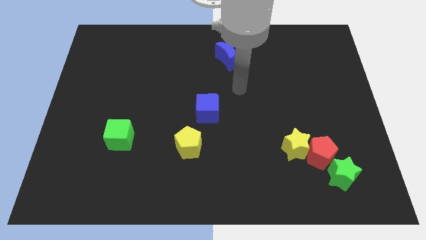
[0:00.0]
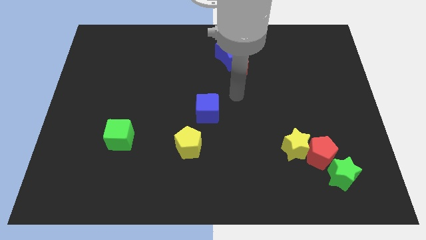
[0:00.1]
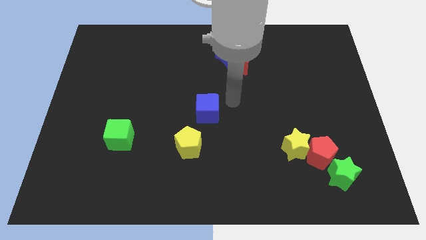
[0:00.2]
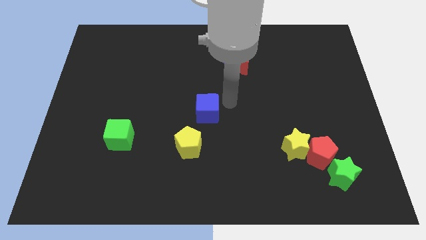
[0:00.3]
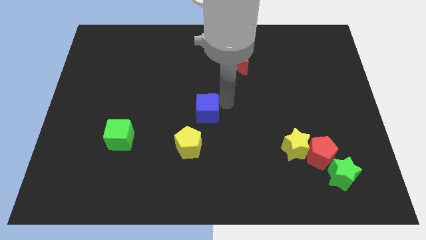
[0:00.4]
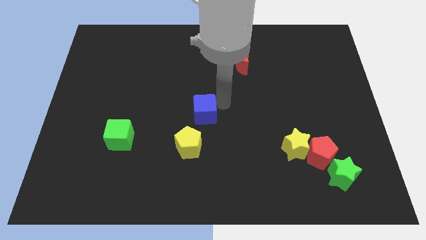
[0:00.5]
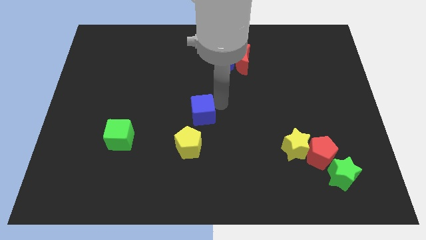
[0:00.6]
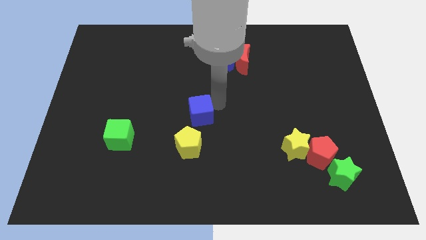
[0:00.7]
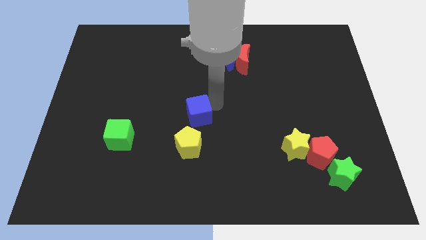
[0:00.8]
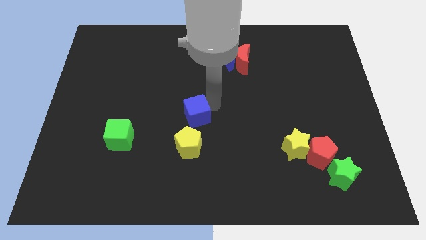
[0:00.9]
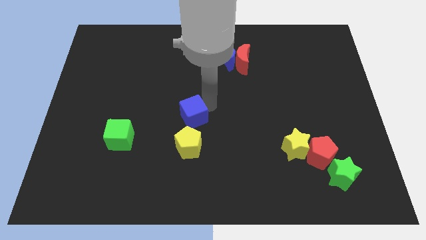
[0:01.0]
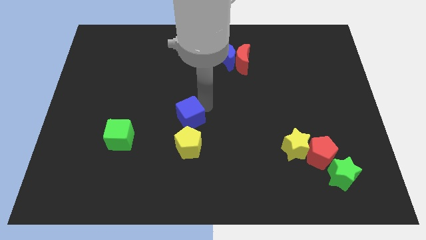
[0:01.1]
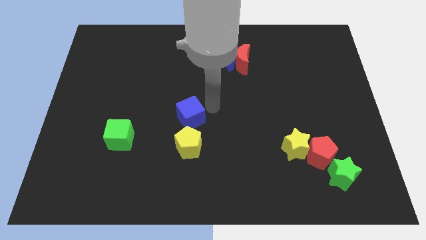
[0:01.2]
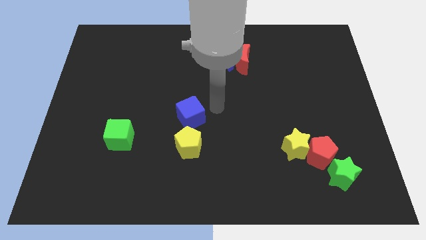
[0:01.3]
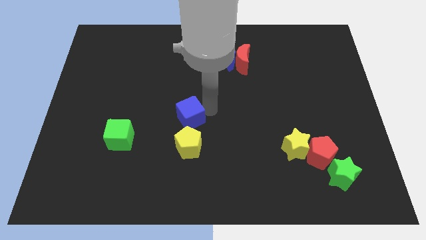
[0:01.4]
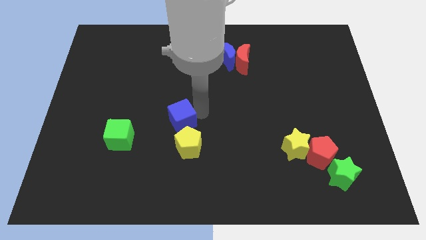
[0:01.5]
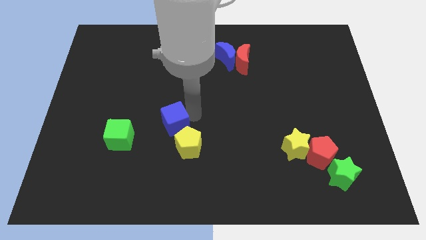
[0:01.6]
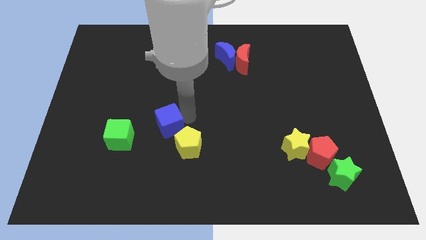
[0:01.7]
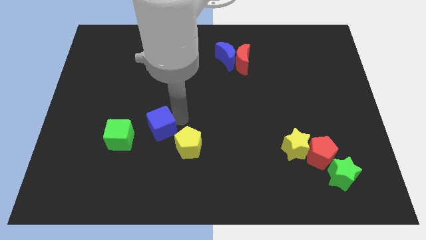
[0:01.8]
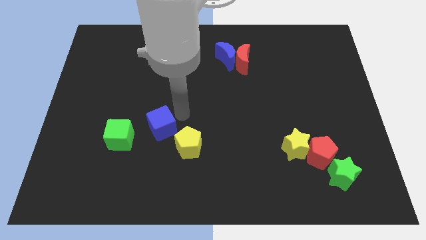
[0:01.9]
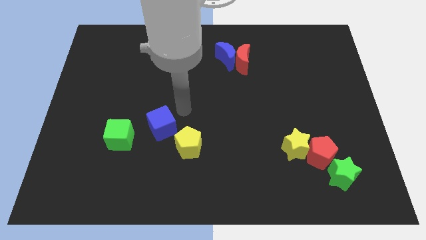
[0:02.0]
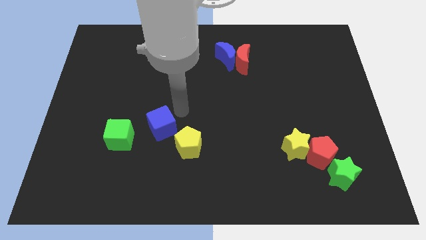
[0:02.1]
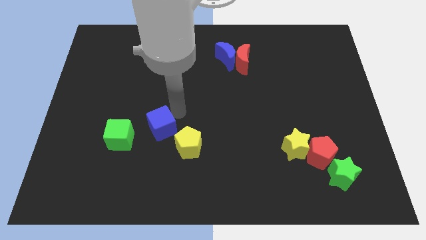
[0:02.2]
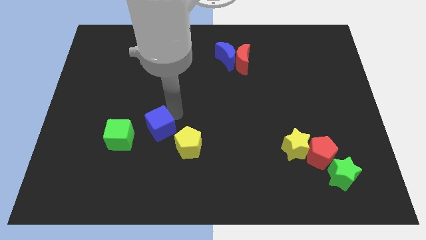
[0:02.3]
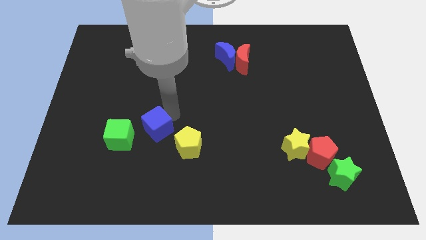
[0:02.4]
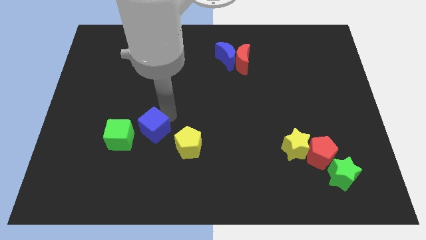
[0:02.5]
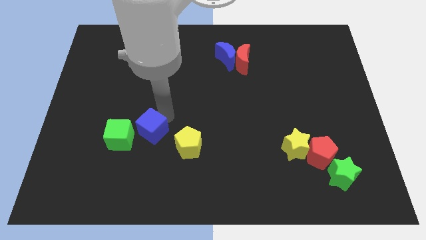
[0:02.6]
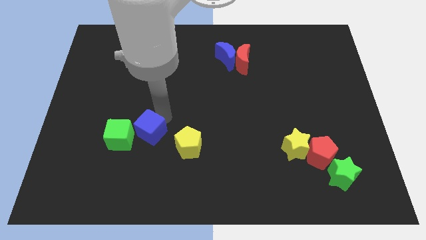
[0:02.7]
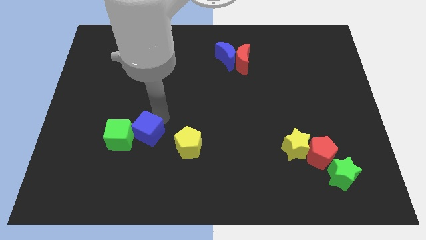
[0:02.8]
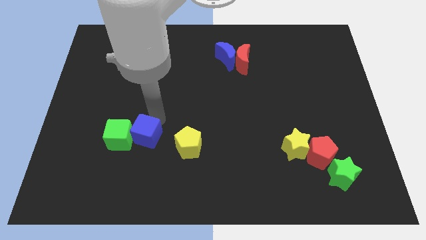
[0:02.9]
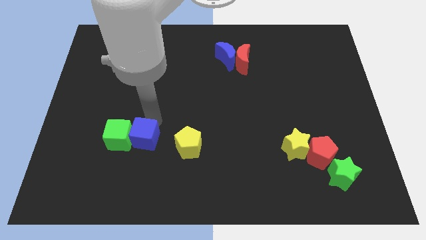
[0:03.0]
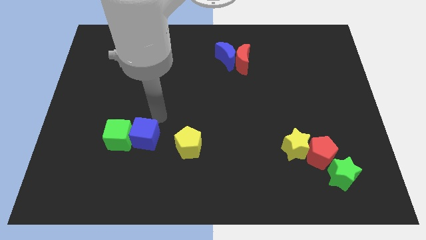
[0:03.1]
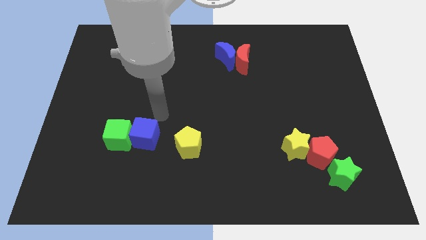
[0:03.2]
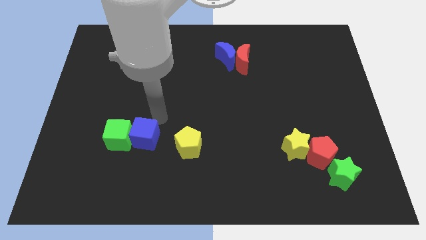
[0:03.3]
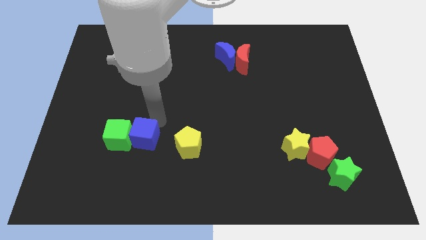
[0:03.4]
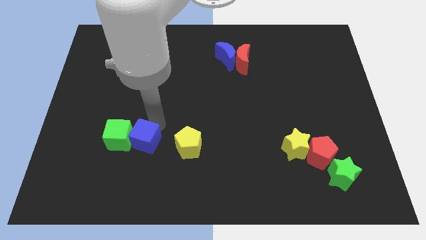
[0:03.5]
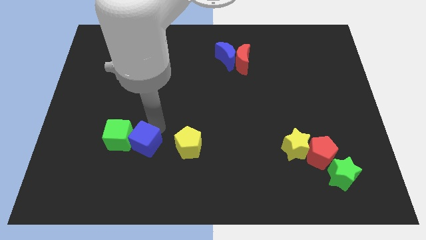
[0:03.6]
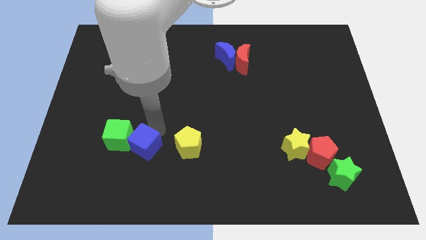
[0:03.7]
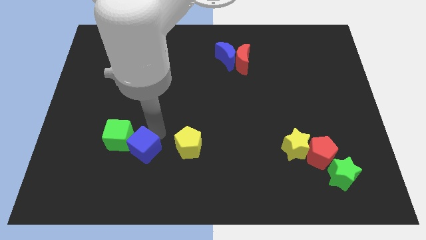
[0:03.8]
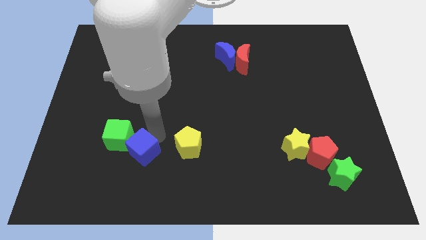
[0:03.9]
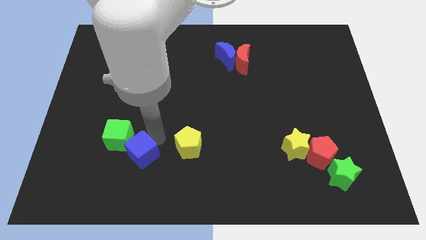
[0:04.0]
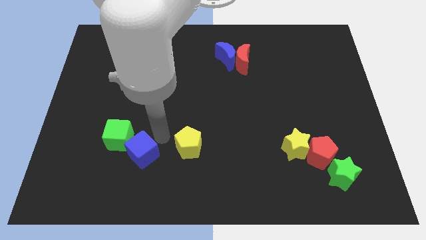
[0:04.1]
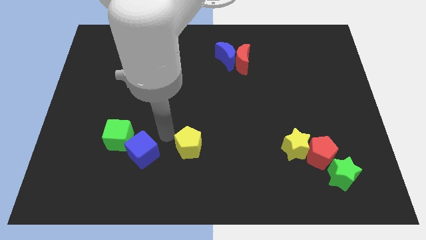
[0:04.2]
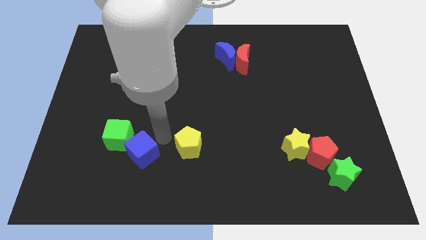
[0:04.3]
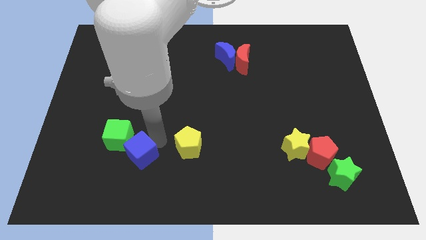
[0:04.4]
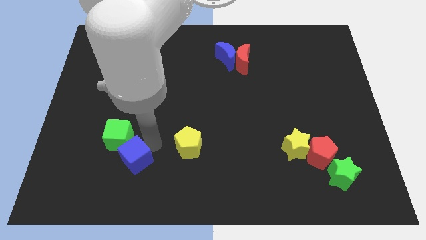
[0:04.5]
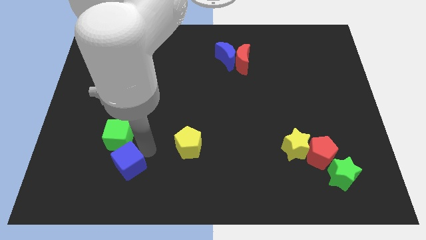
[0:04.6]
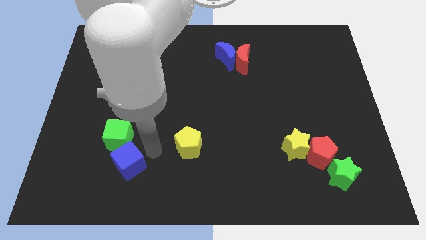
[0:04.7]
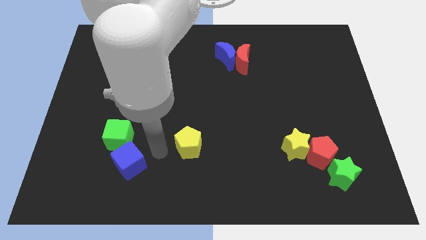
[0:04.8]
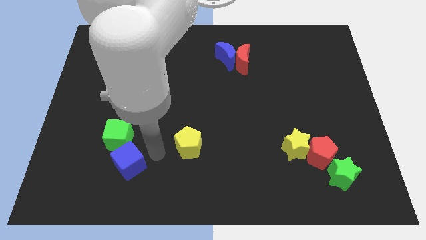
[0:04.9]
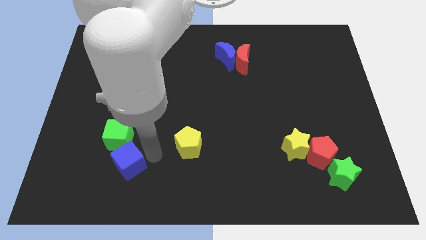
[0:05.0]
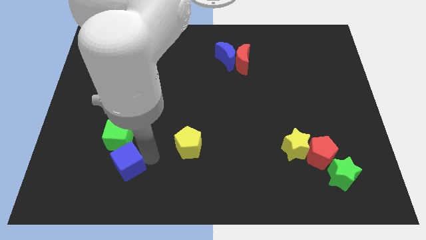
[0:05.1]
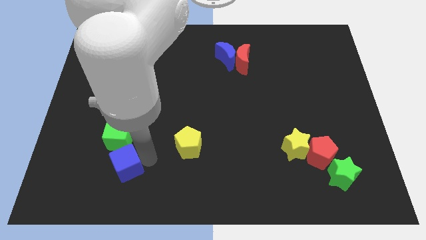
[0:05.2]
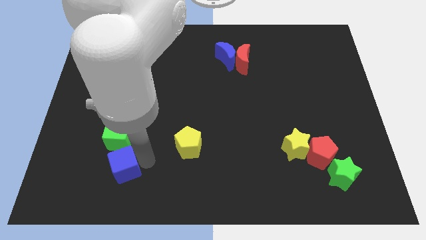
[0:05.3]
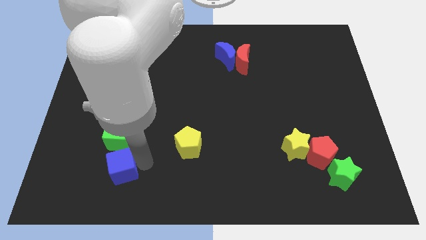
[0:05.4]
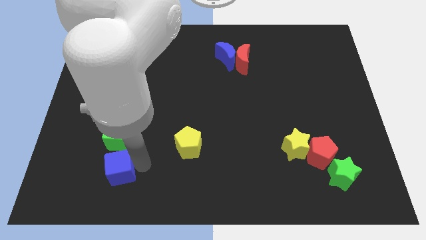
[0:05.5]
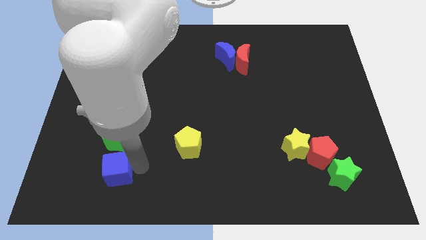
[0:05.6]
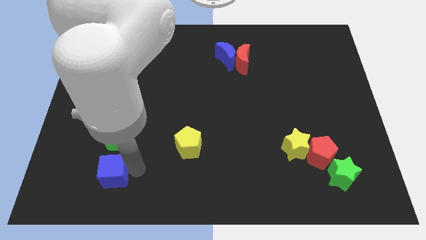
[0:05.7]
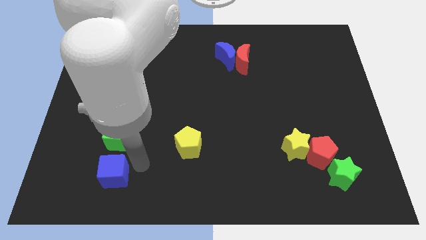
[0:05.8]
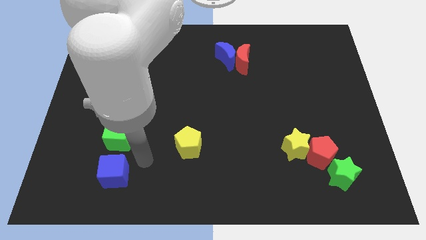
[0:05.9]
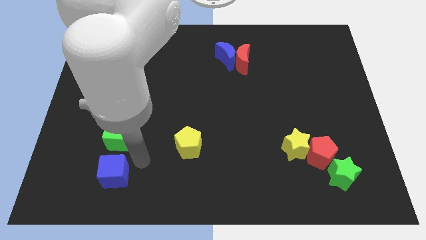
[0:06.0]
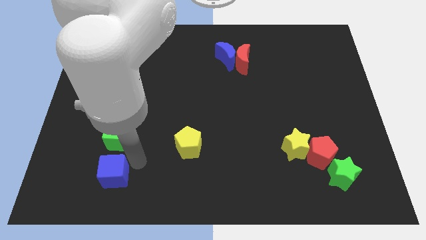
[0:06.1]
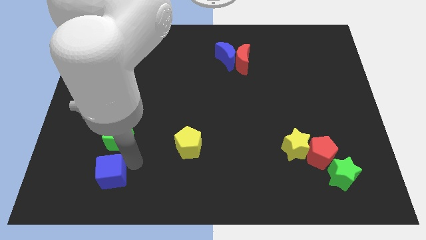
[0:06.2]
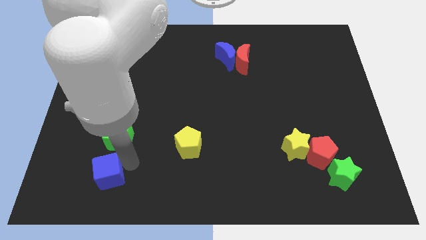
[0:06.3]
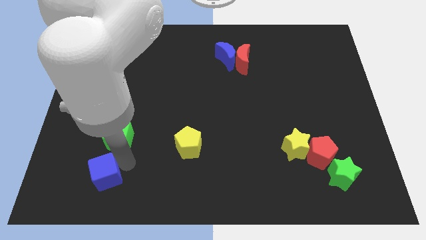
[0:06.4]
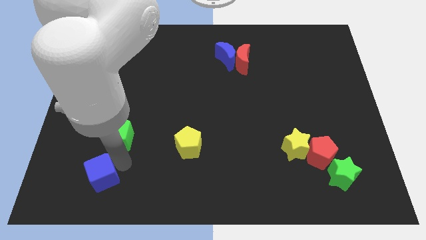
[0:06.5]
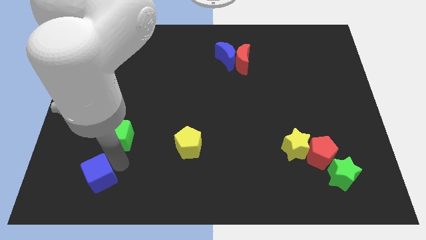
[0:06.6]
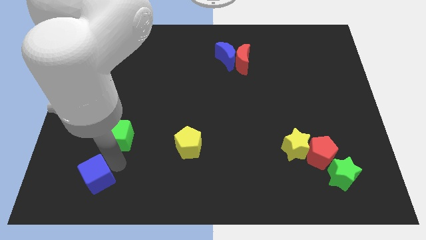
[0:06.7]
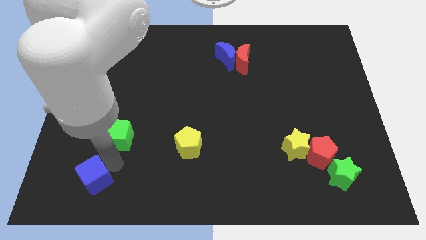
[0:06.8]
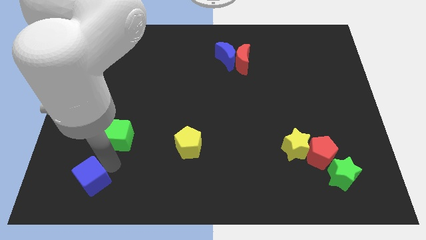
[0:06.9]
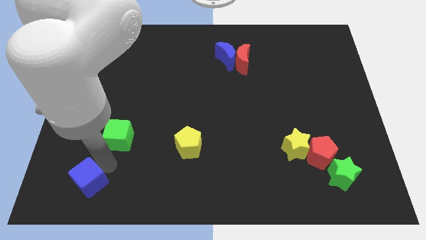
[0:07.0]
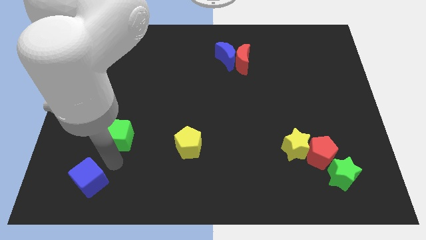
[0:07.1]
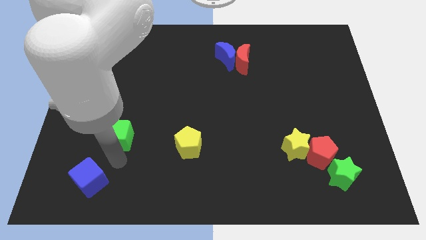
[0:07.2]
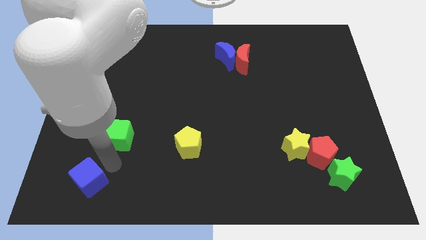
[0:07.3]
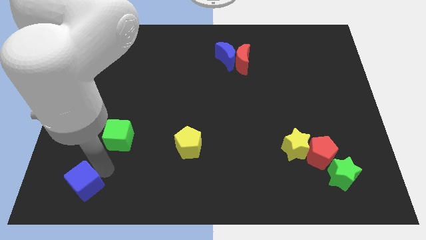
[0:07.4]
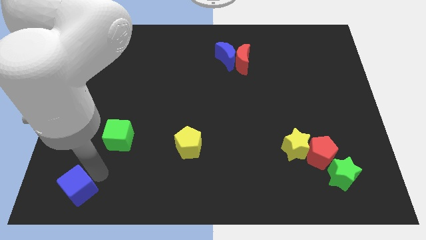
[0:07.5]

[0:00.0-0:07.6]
push the blue cube to the lower left corner
